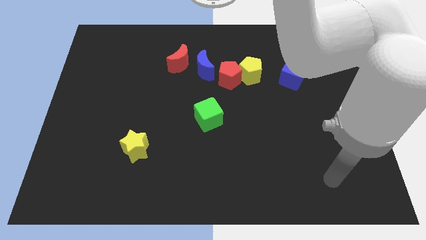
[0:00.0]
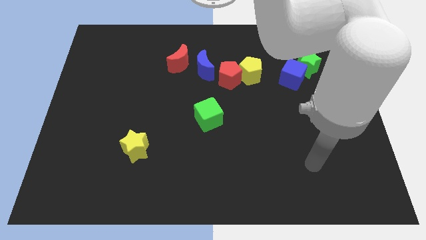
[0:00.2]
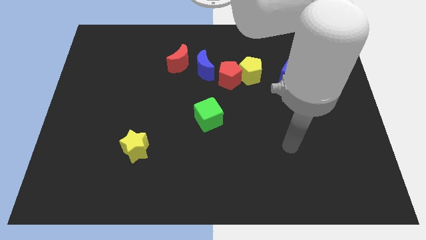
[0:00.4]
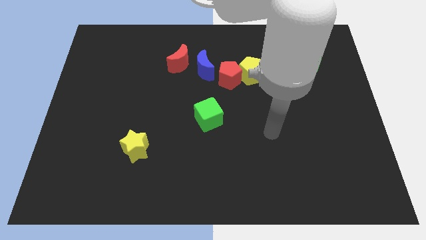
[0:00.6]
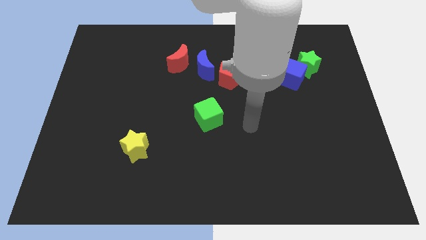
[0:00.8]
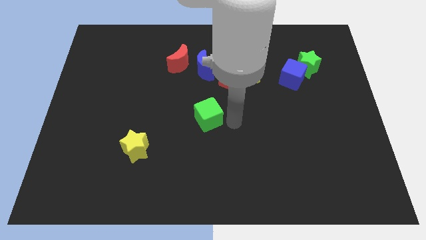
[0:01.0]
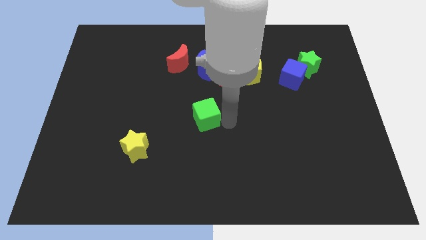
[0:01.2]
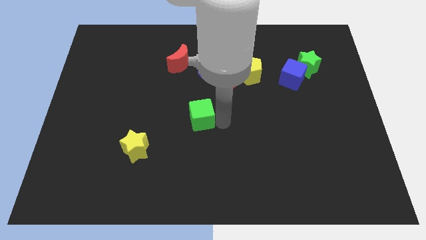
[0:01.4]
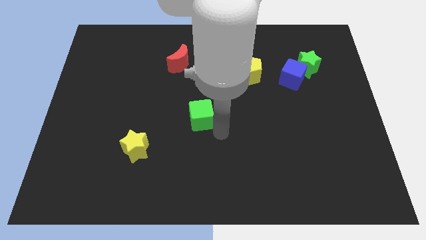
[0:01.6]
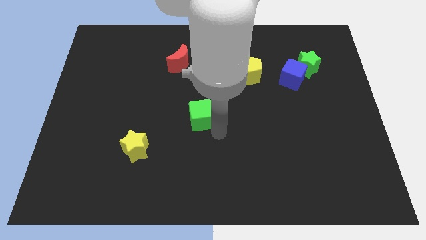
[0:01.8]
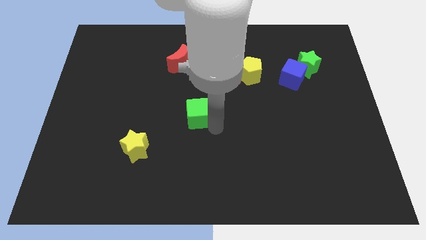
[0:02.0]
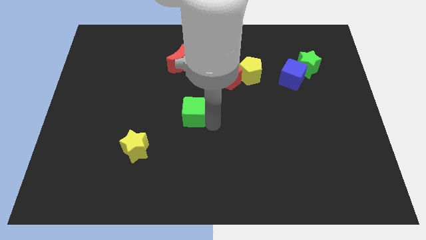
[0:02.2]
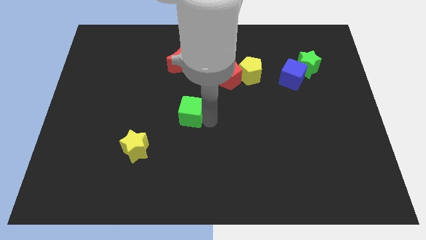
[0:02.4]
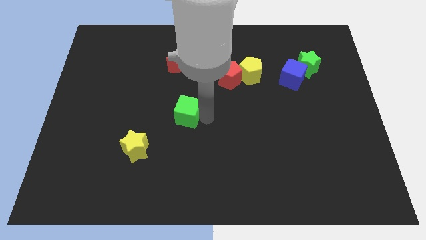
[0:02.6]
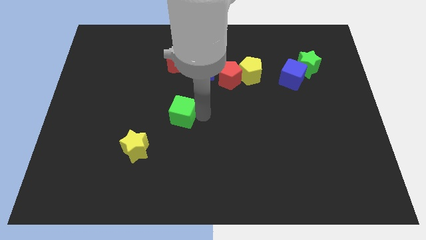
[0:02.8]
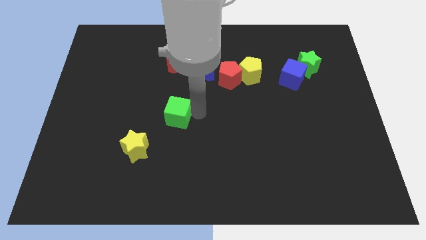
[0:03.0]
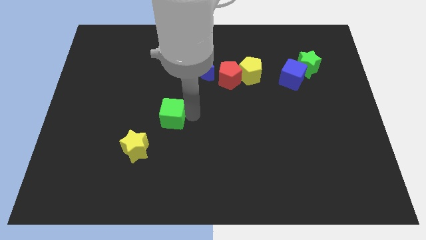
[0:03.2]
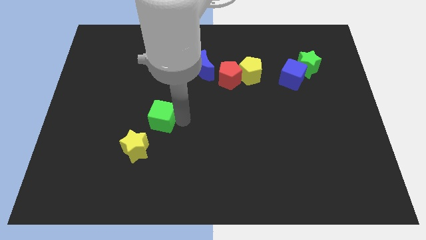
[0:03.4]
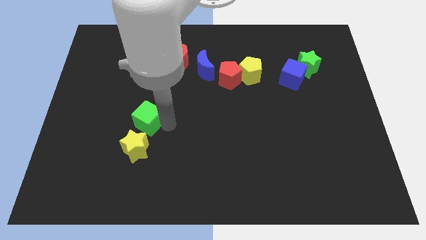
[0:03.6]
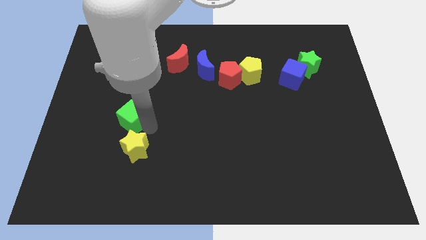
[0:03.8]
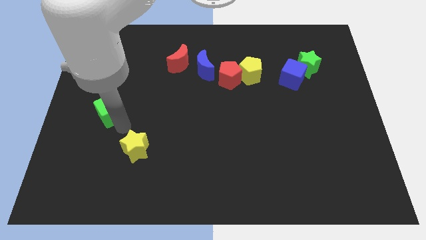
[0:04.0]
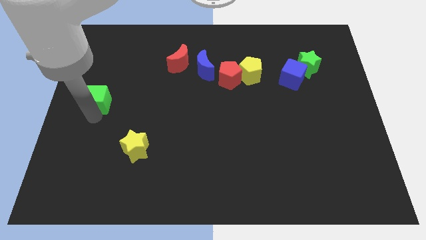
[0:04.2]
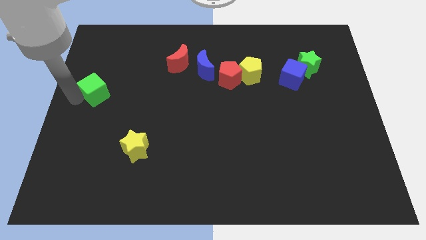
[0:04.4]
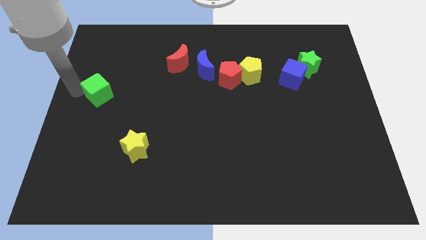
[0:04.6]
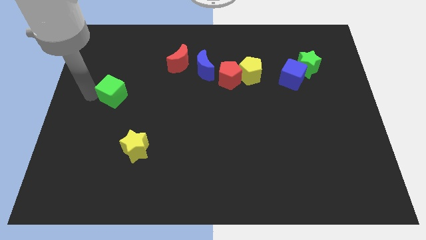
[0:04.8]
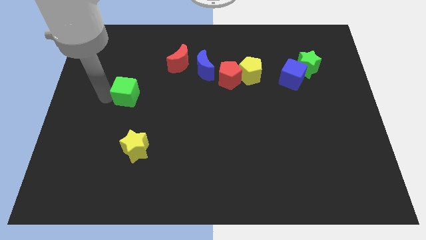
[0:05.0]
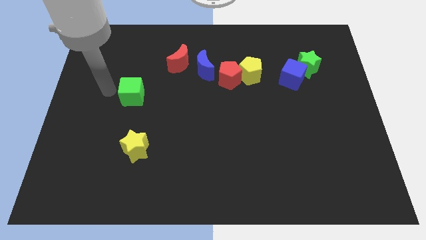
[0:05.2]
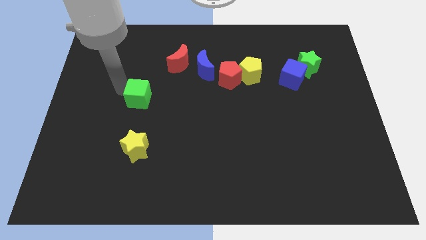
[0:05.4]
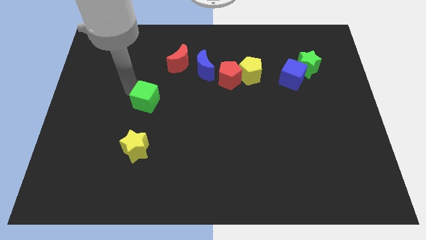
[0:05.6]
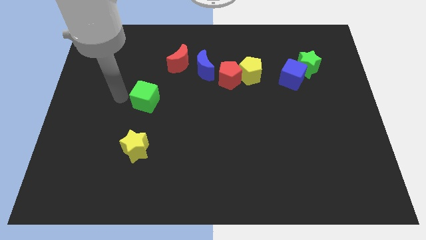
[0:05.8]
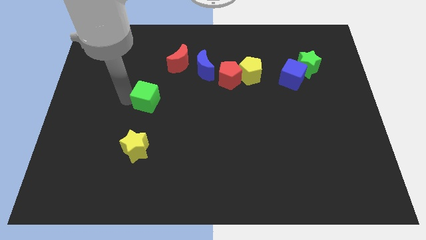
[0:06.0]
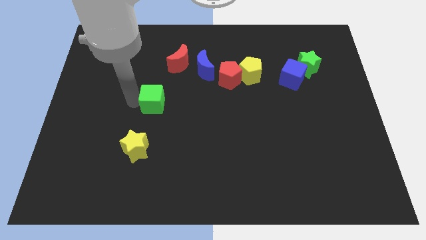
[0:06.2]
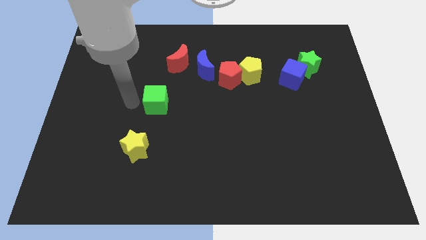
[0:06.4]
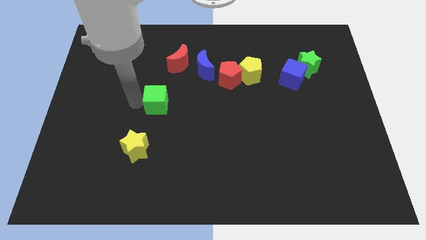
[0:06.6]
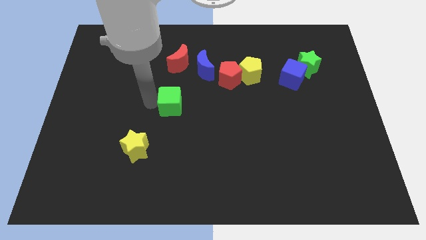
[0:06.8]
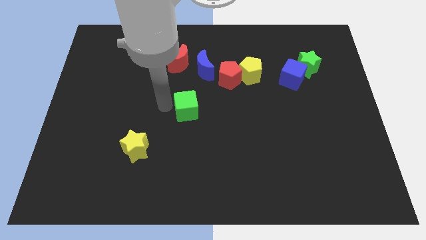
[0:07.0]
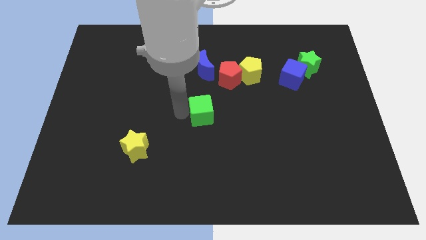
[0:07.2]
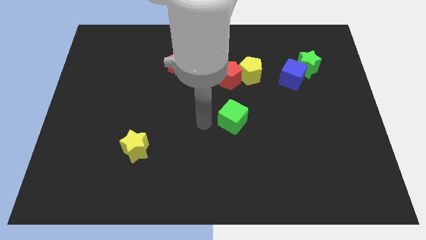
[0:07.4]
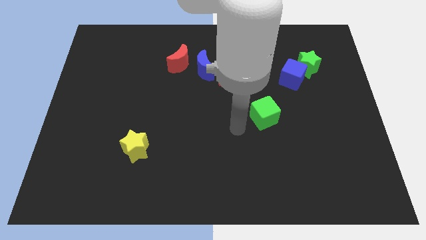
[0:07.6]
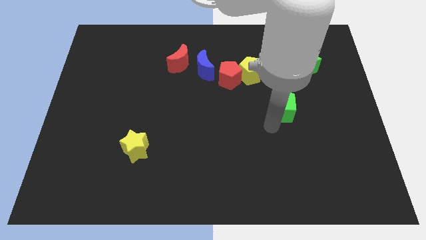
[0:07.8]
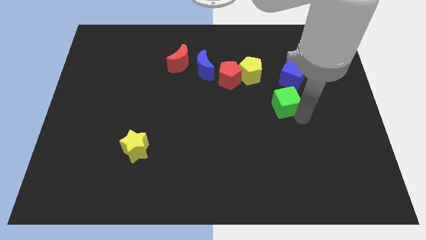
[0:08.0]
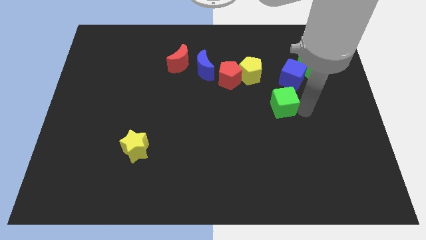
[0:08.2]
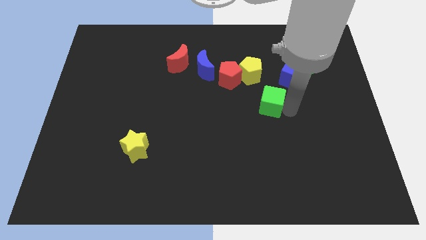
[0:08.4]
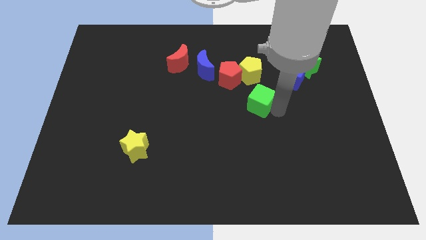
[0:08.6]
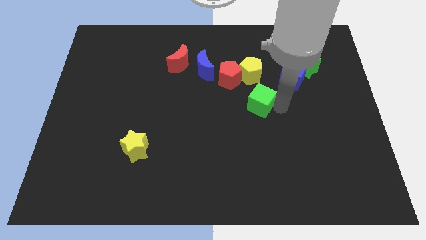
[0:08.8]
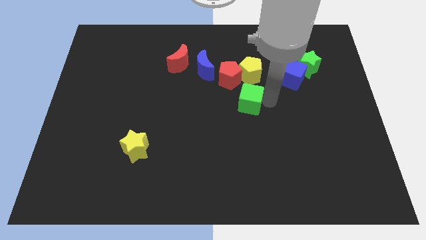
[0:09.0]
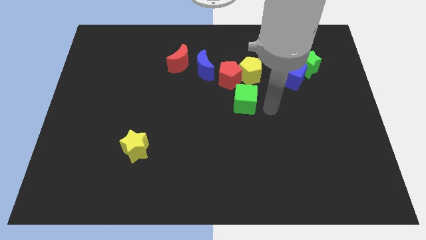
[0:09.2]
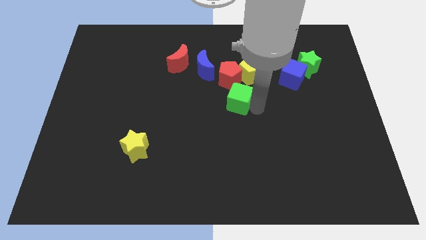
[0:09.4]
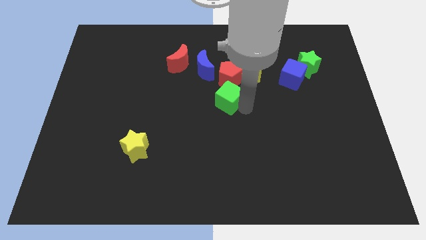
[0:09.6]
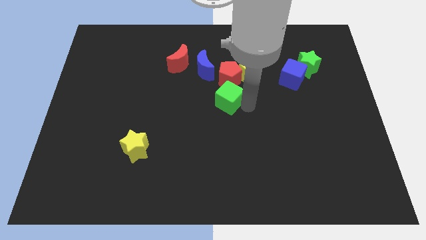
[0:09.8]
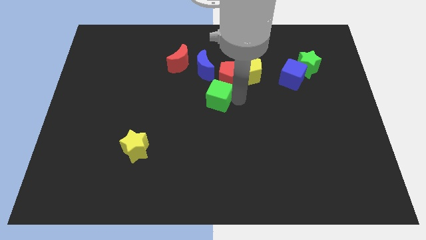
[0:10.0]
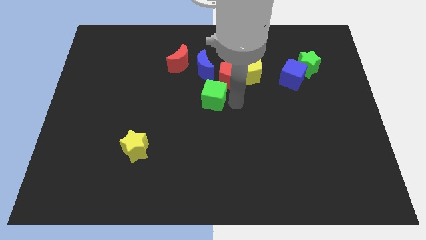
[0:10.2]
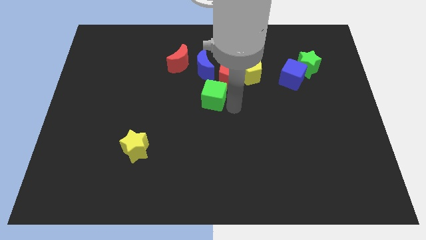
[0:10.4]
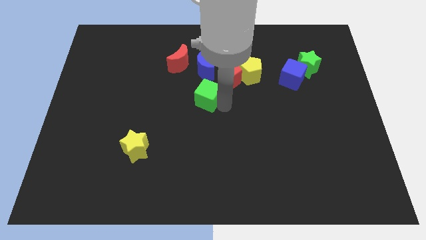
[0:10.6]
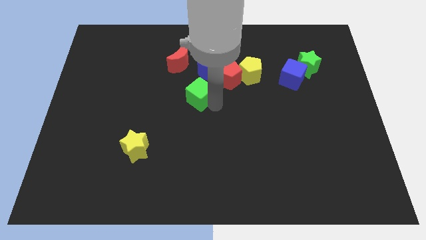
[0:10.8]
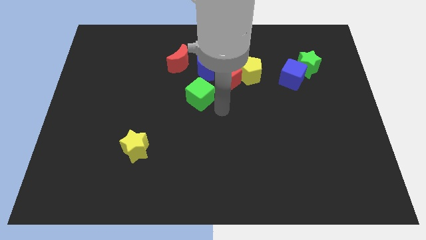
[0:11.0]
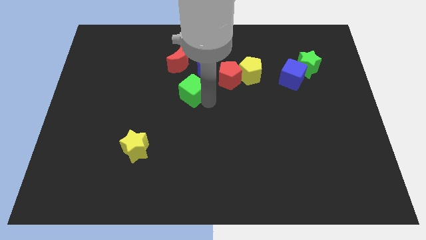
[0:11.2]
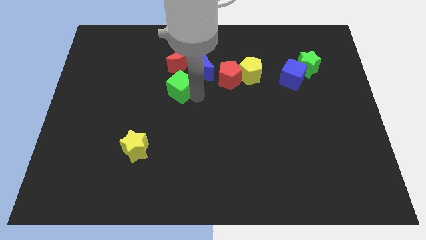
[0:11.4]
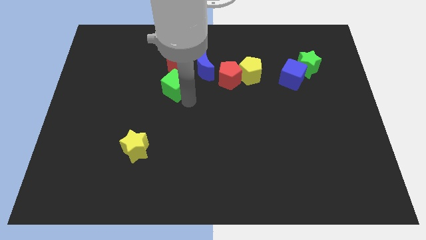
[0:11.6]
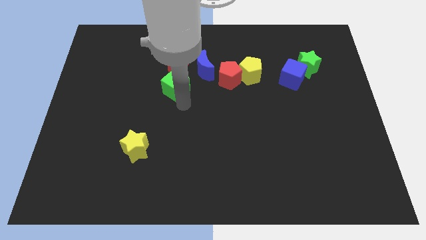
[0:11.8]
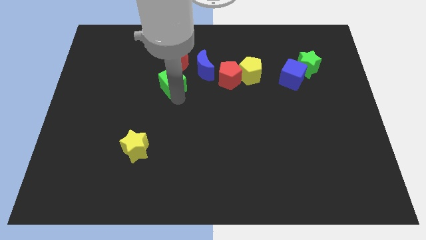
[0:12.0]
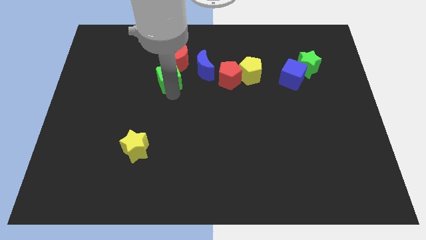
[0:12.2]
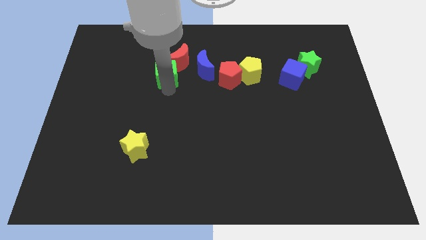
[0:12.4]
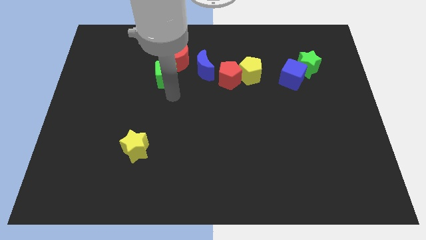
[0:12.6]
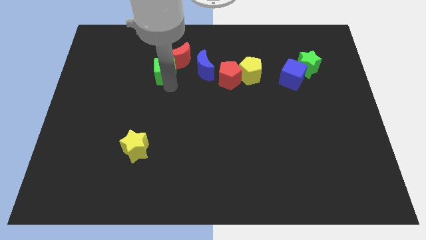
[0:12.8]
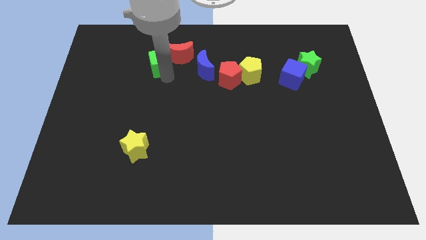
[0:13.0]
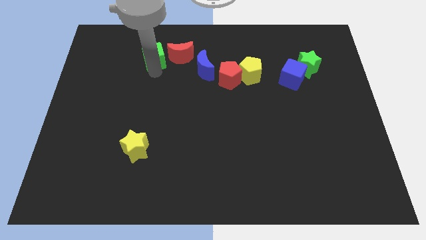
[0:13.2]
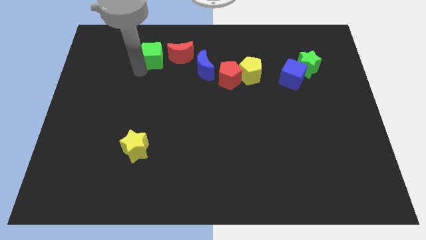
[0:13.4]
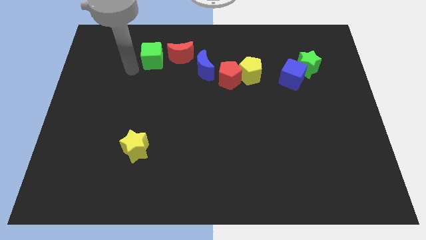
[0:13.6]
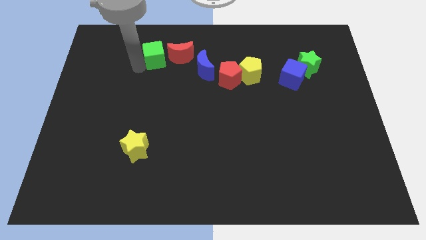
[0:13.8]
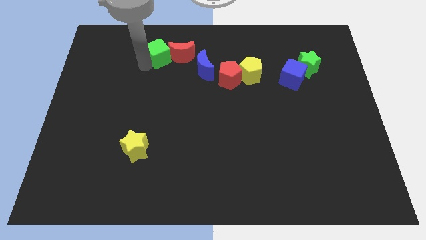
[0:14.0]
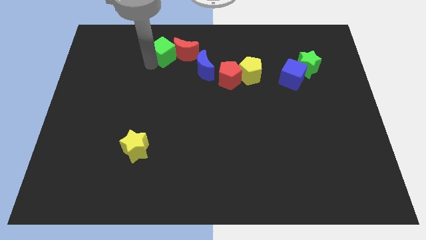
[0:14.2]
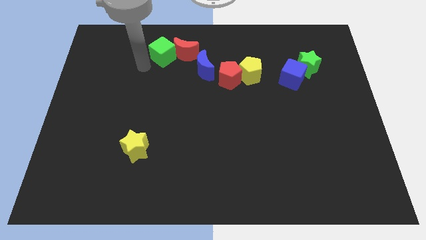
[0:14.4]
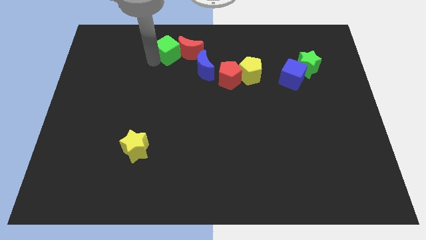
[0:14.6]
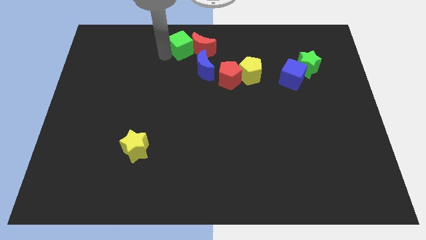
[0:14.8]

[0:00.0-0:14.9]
move the green cube to the towards your base
